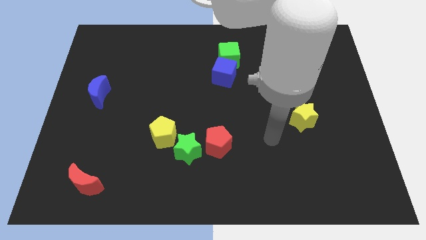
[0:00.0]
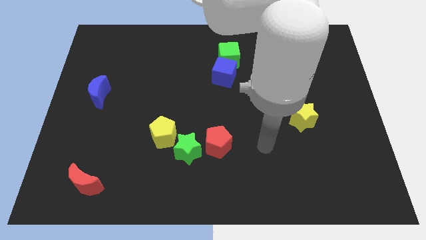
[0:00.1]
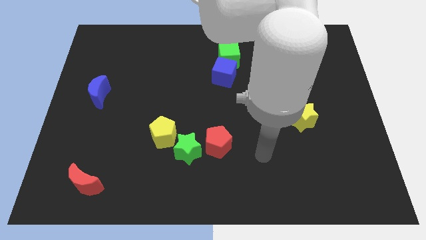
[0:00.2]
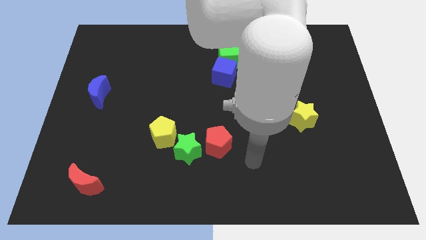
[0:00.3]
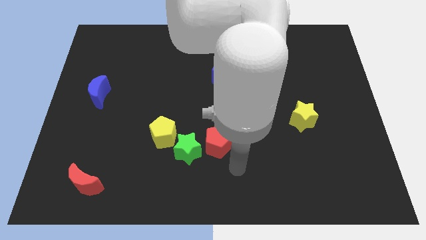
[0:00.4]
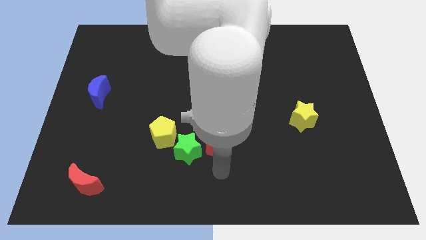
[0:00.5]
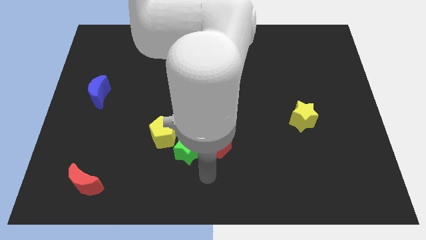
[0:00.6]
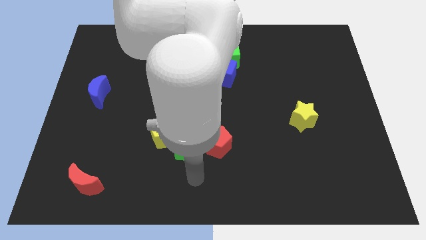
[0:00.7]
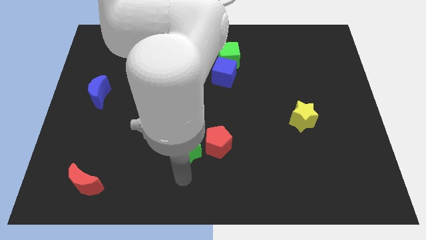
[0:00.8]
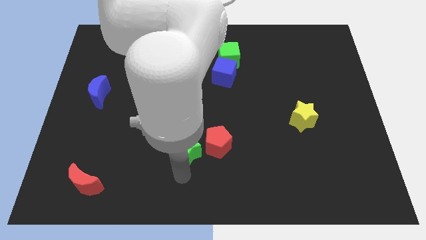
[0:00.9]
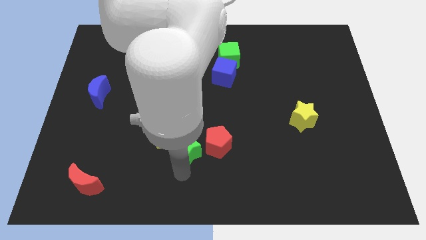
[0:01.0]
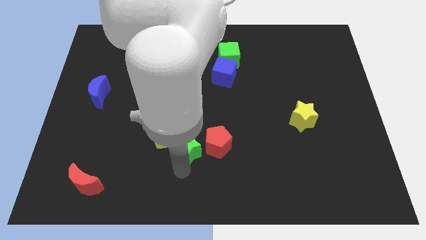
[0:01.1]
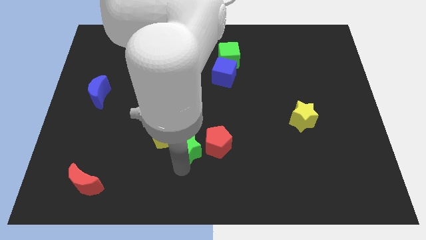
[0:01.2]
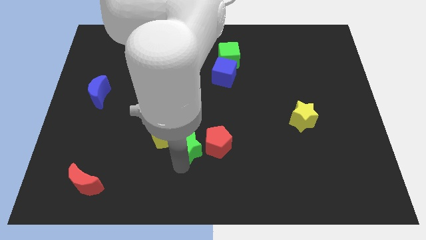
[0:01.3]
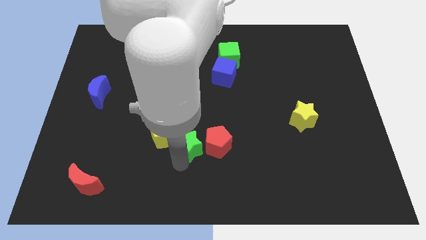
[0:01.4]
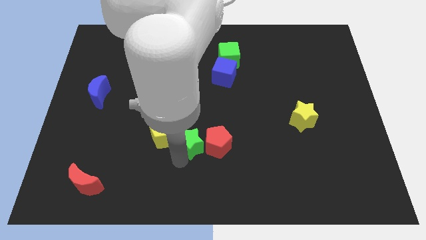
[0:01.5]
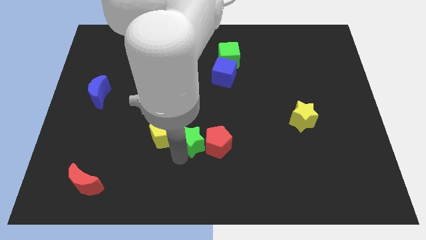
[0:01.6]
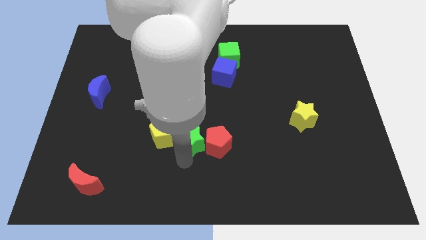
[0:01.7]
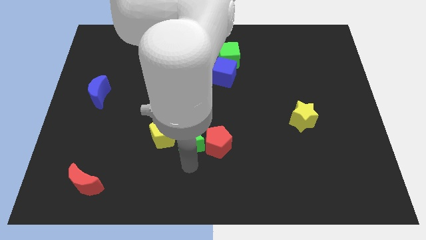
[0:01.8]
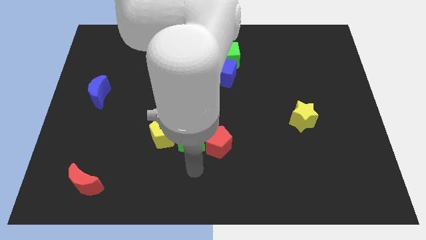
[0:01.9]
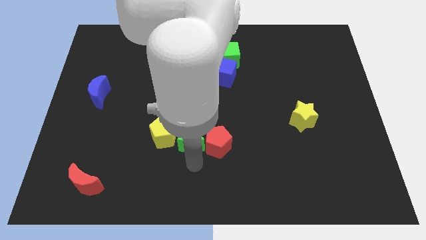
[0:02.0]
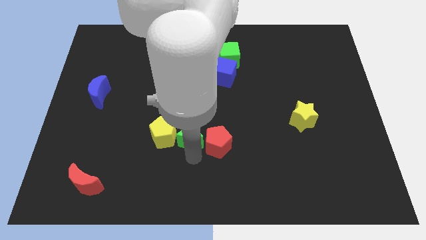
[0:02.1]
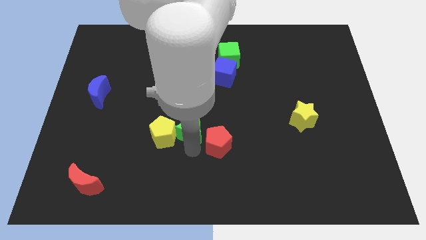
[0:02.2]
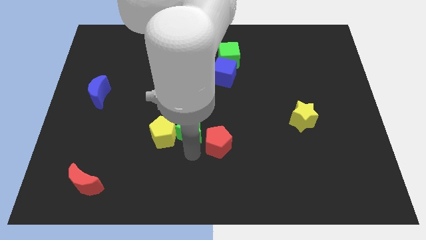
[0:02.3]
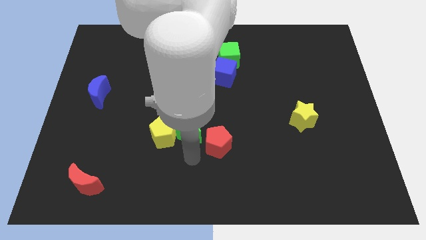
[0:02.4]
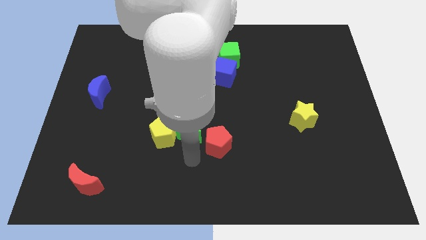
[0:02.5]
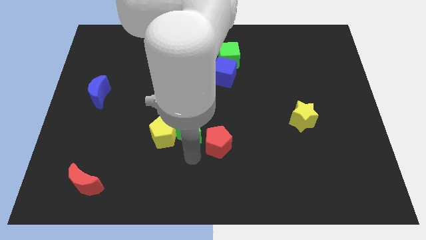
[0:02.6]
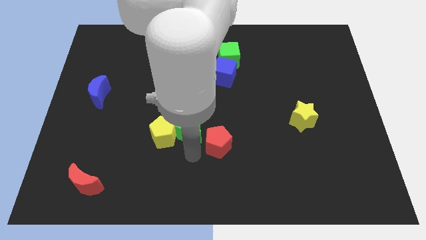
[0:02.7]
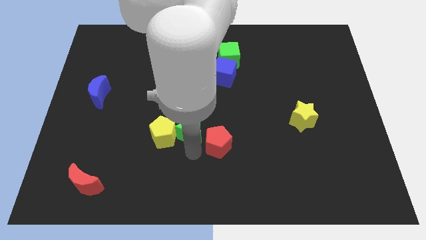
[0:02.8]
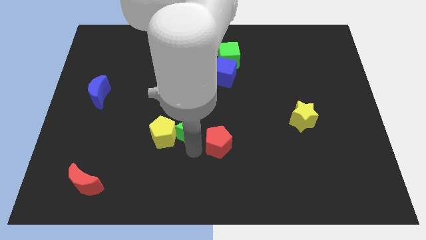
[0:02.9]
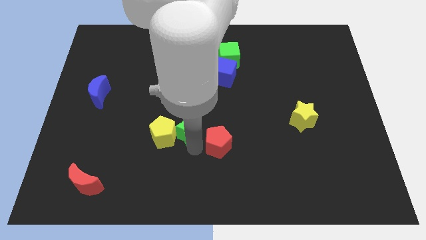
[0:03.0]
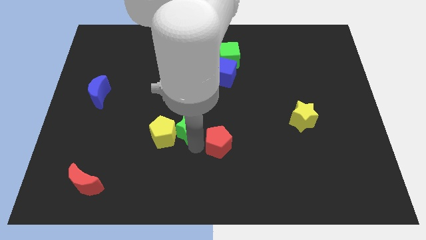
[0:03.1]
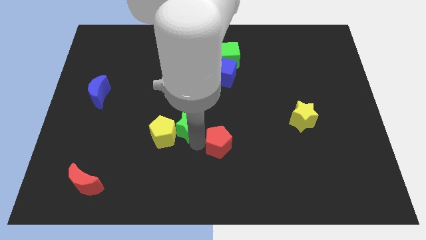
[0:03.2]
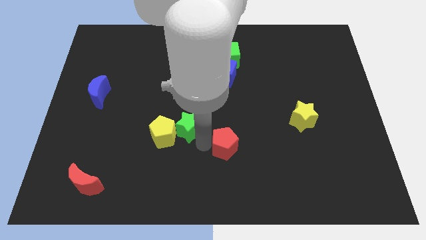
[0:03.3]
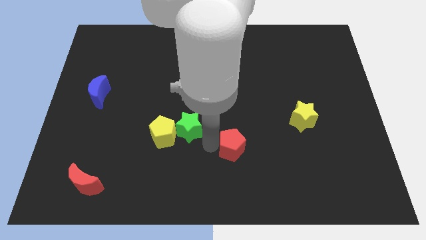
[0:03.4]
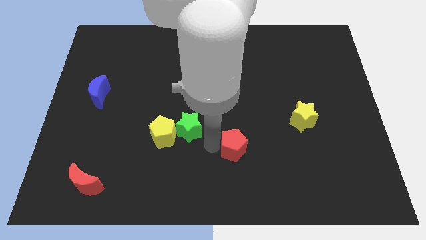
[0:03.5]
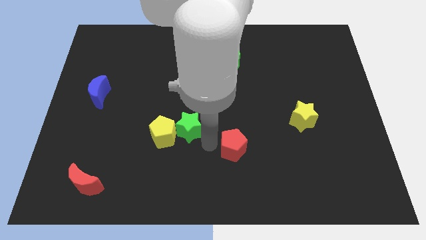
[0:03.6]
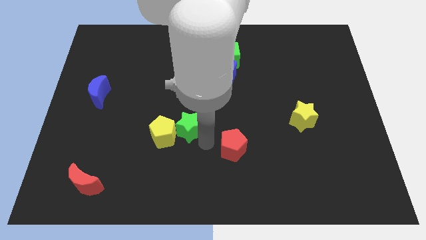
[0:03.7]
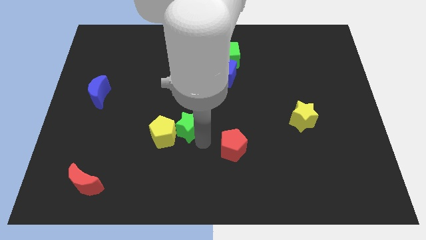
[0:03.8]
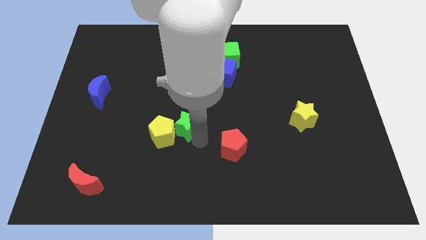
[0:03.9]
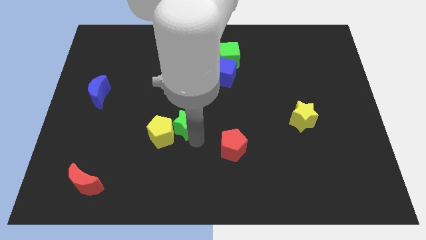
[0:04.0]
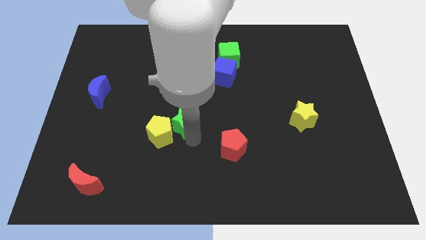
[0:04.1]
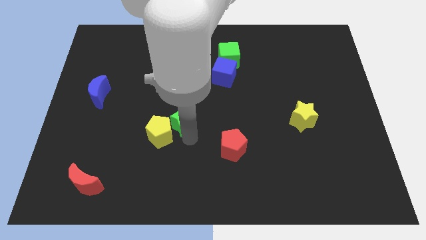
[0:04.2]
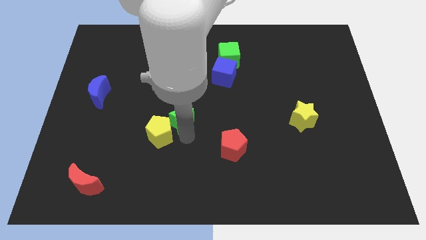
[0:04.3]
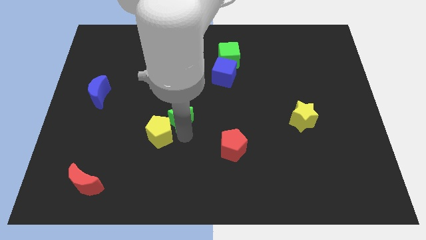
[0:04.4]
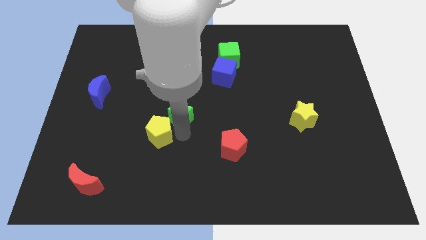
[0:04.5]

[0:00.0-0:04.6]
slide the green star slightly upwards and then to the left

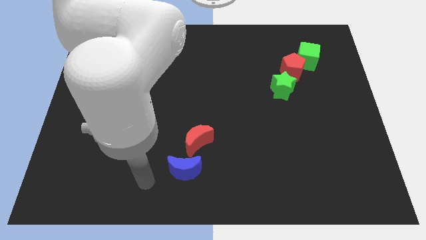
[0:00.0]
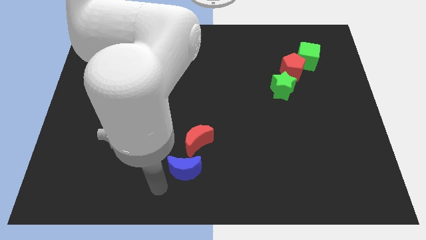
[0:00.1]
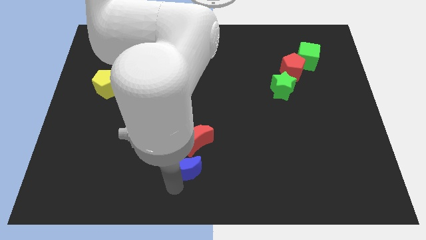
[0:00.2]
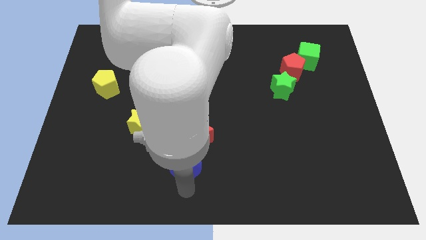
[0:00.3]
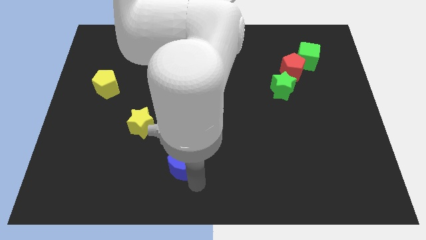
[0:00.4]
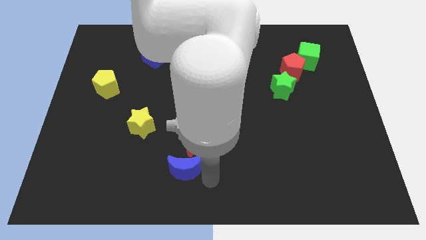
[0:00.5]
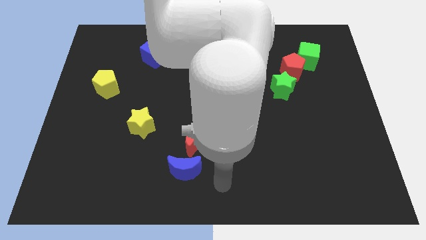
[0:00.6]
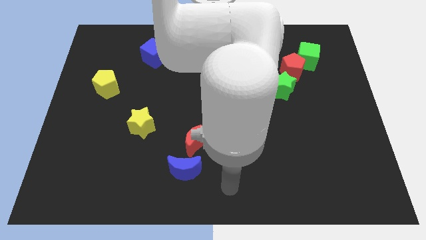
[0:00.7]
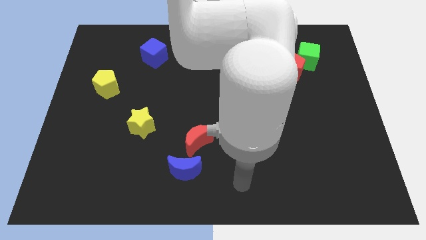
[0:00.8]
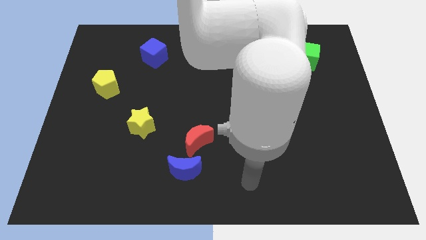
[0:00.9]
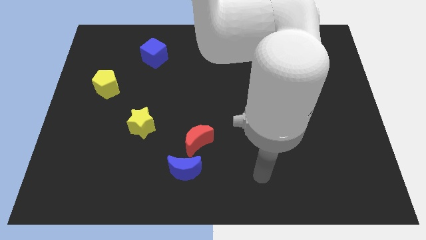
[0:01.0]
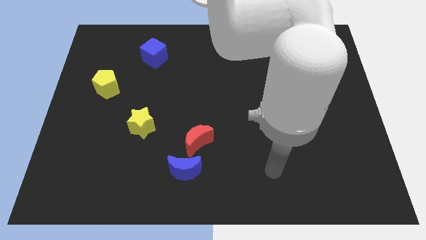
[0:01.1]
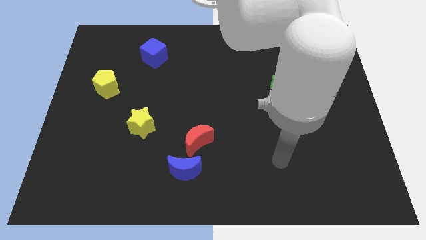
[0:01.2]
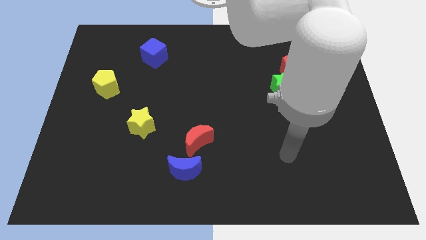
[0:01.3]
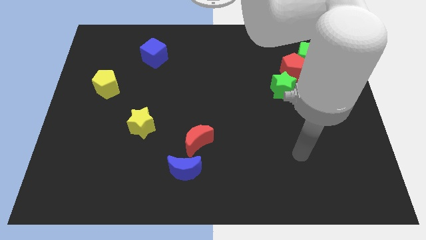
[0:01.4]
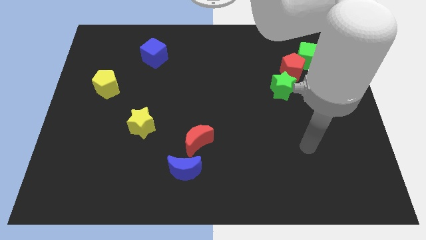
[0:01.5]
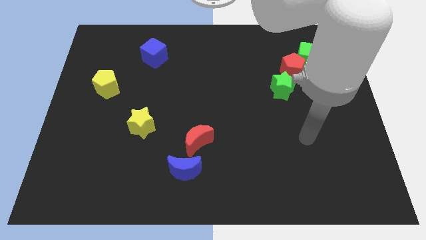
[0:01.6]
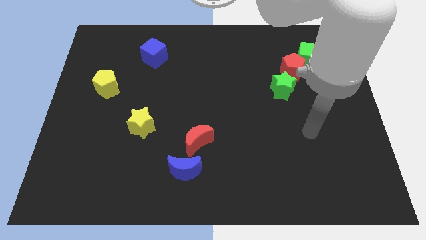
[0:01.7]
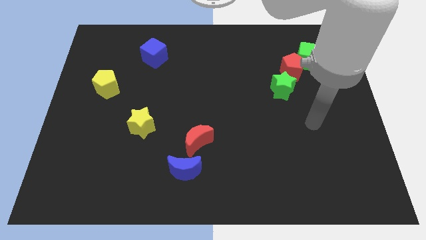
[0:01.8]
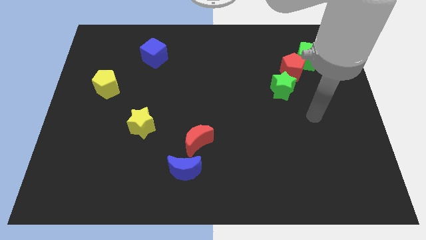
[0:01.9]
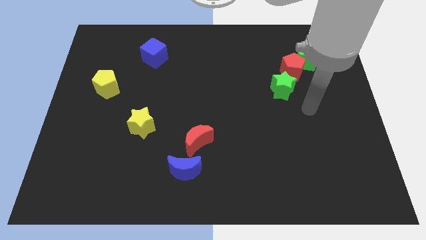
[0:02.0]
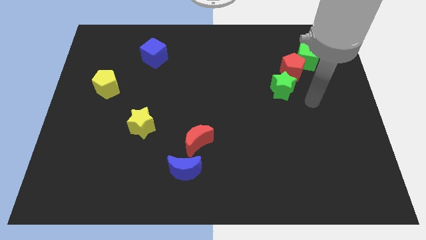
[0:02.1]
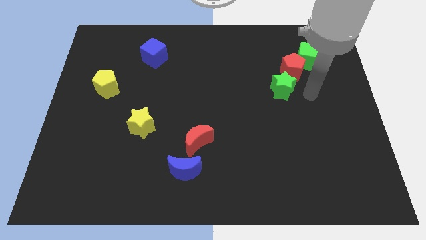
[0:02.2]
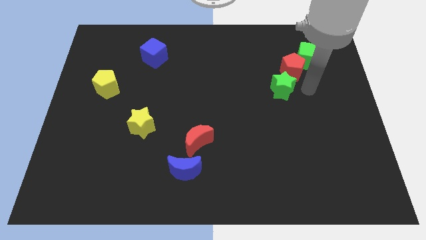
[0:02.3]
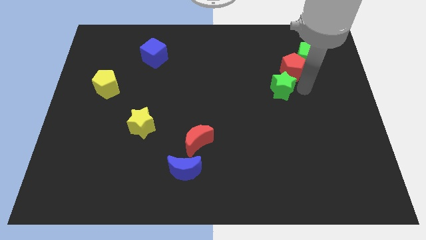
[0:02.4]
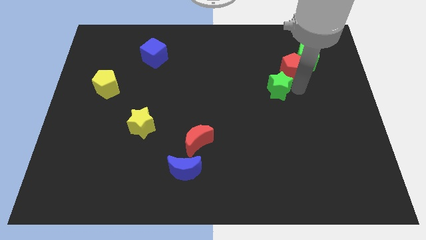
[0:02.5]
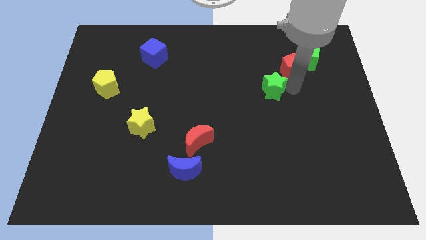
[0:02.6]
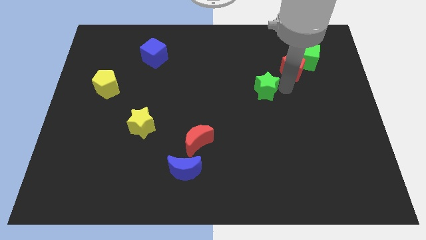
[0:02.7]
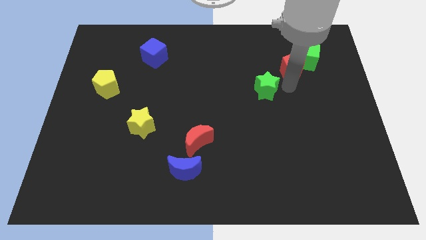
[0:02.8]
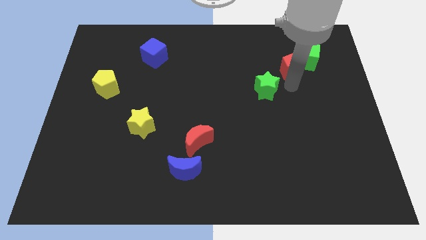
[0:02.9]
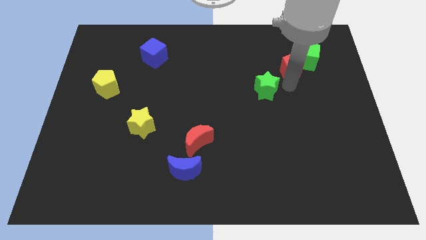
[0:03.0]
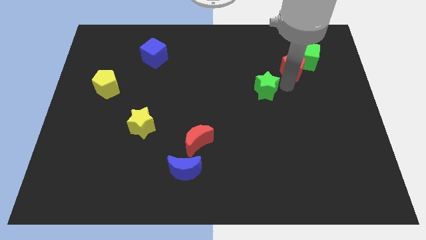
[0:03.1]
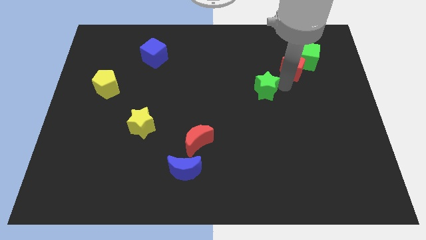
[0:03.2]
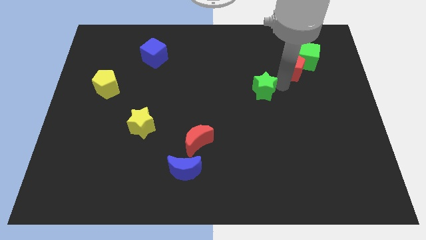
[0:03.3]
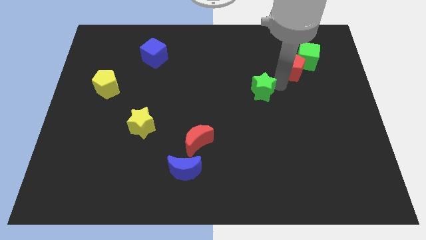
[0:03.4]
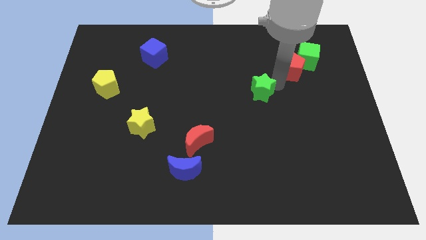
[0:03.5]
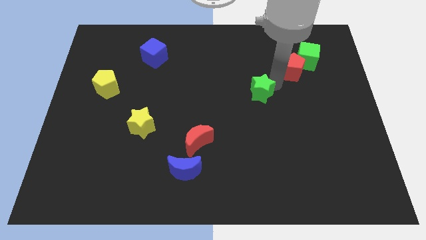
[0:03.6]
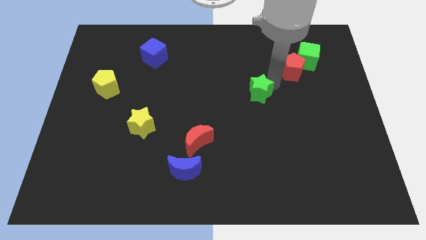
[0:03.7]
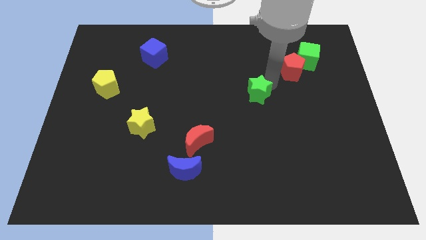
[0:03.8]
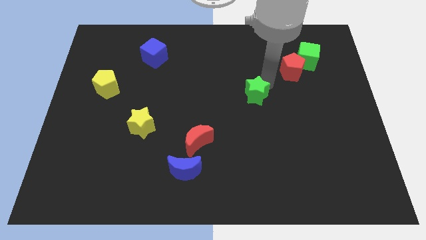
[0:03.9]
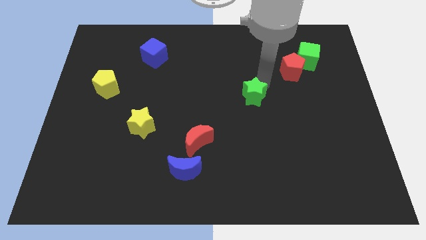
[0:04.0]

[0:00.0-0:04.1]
move the green star a bit left
